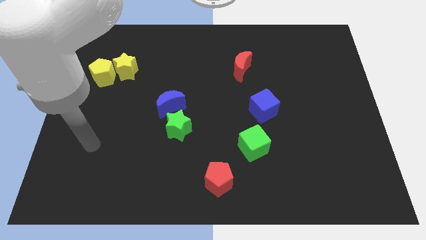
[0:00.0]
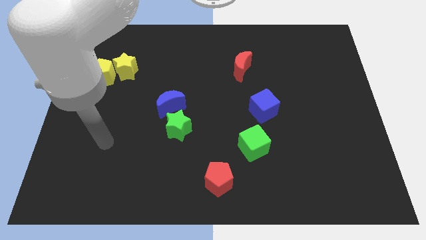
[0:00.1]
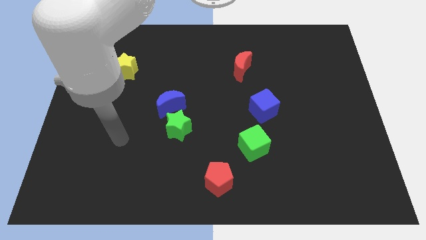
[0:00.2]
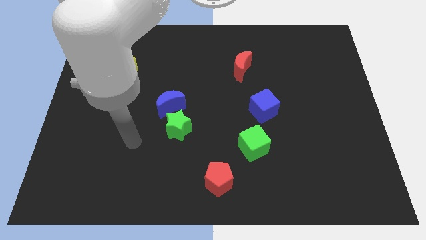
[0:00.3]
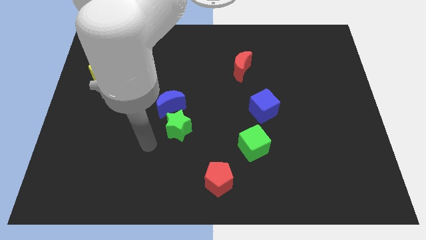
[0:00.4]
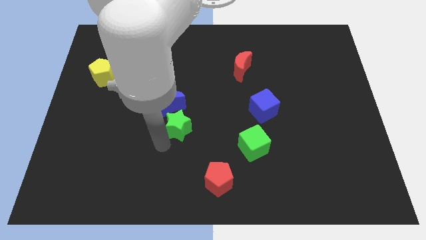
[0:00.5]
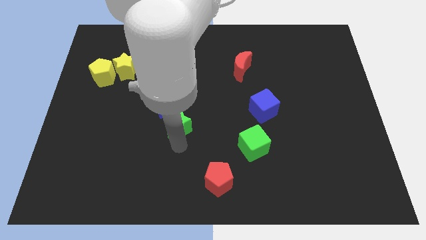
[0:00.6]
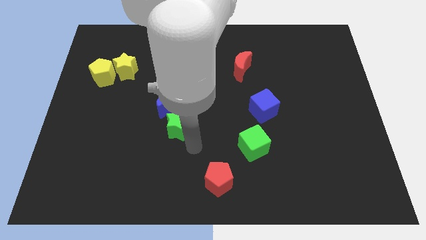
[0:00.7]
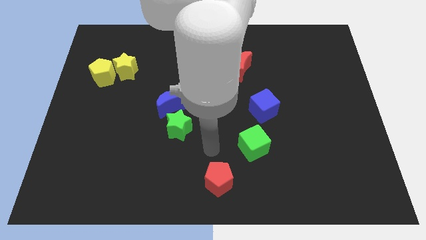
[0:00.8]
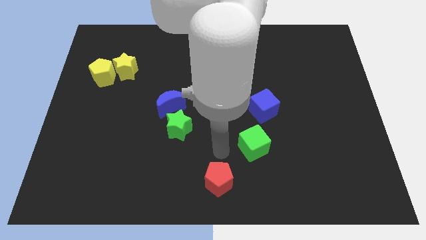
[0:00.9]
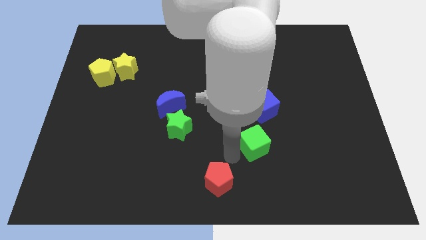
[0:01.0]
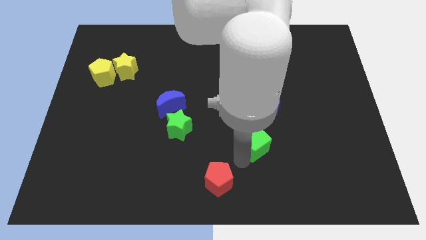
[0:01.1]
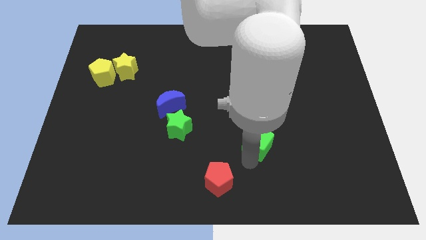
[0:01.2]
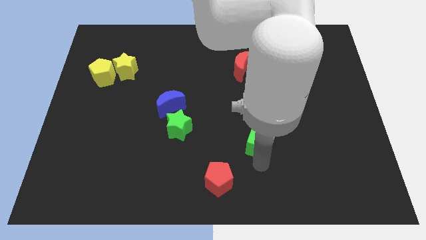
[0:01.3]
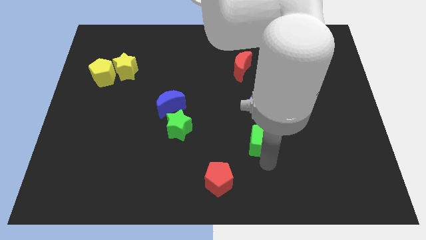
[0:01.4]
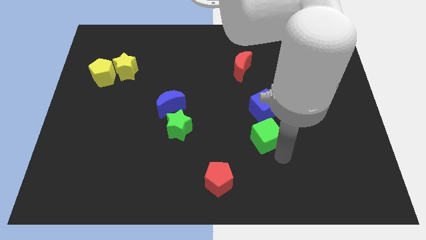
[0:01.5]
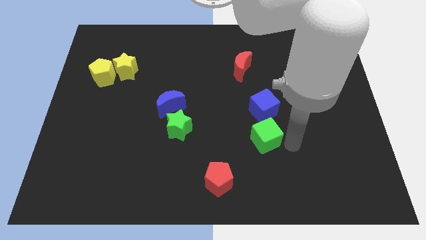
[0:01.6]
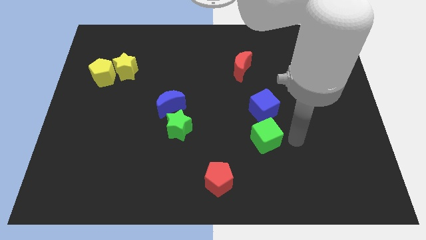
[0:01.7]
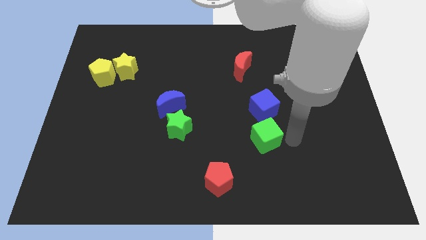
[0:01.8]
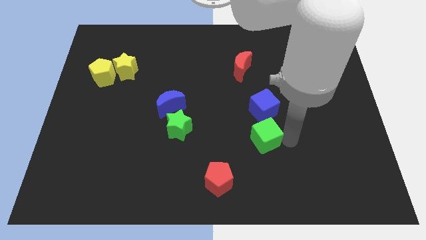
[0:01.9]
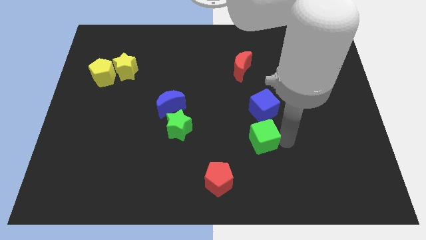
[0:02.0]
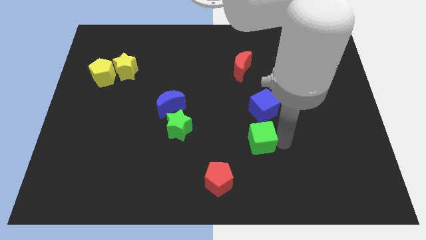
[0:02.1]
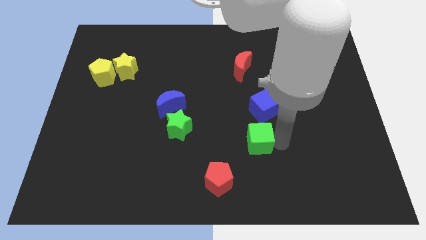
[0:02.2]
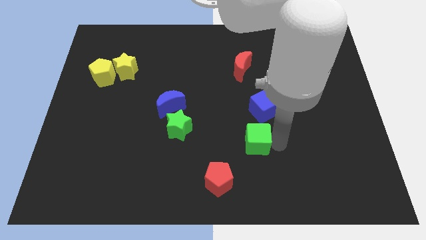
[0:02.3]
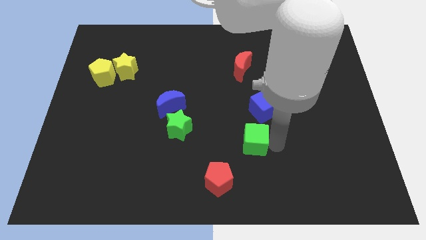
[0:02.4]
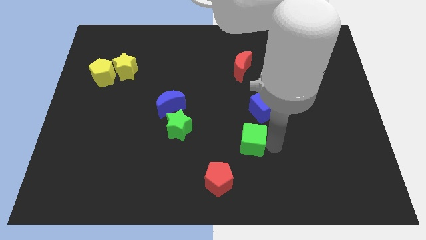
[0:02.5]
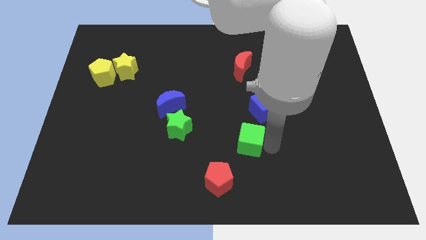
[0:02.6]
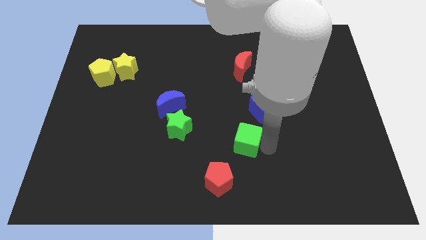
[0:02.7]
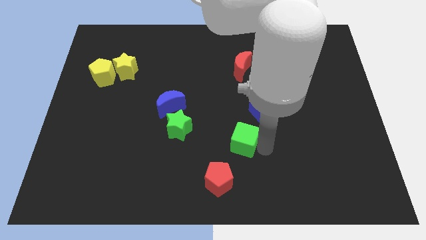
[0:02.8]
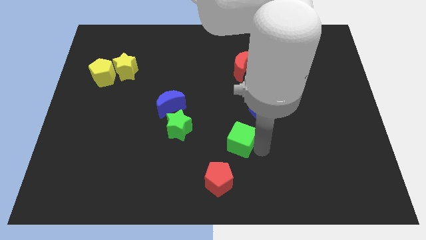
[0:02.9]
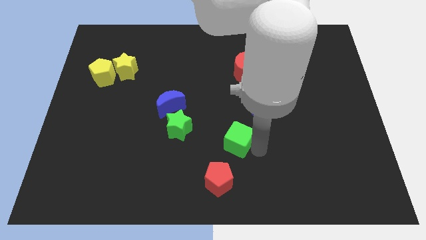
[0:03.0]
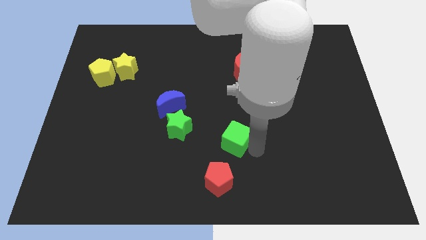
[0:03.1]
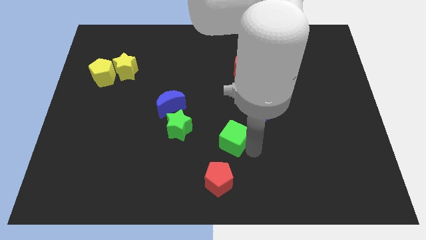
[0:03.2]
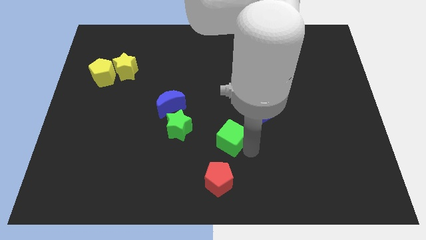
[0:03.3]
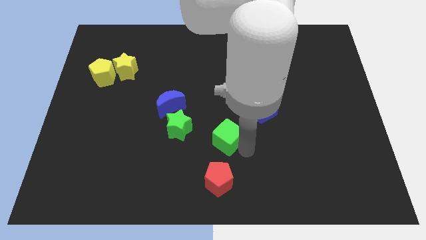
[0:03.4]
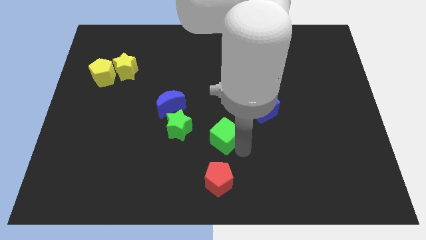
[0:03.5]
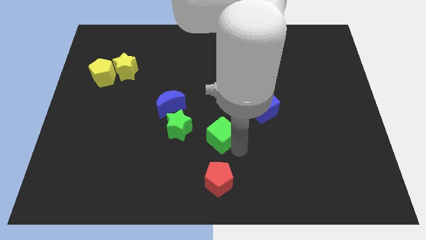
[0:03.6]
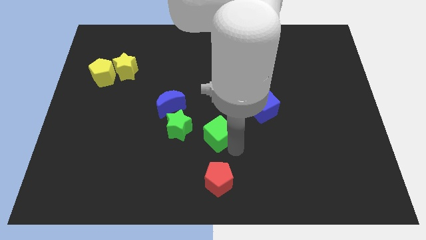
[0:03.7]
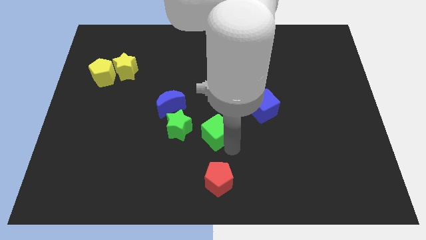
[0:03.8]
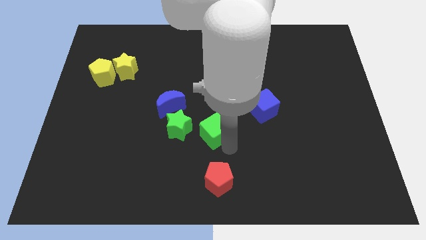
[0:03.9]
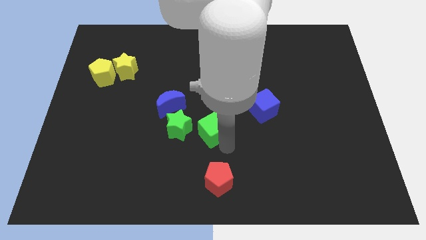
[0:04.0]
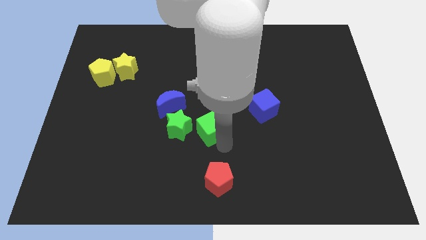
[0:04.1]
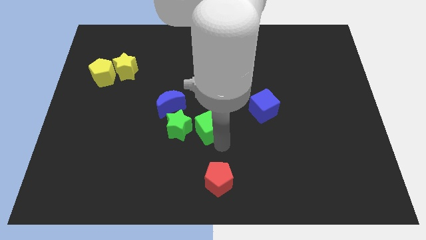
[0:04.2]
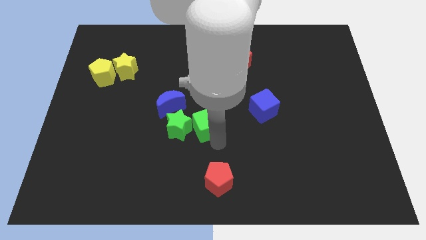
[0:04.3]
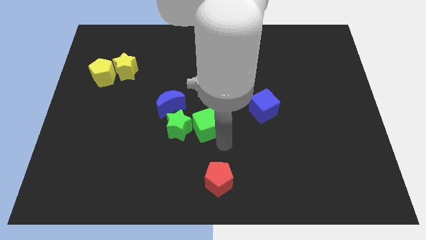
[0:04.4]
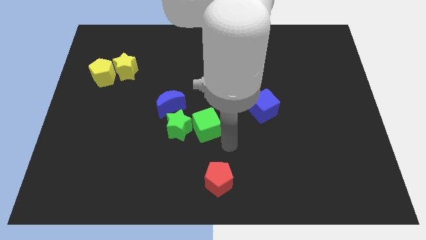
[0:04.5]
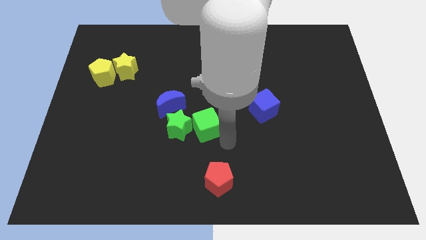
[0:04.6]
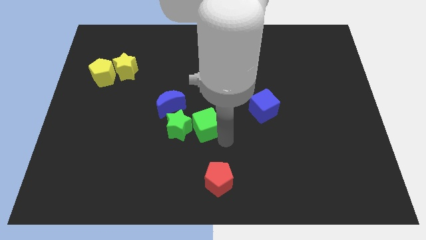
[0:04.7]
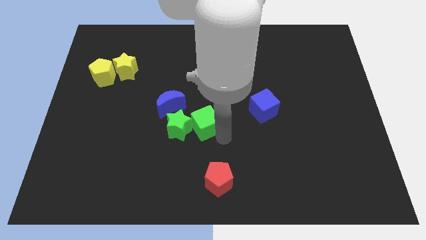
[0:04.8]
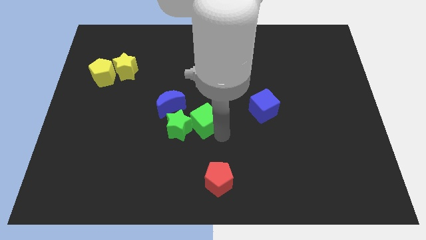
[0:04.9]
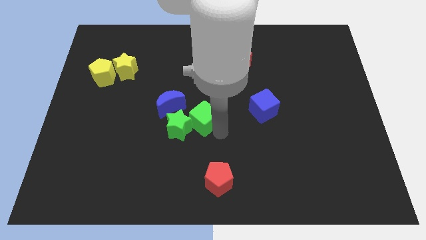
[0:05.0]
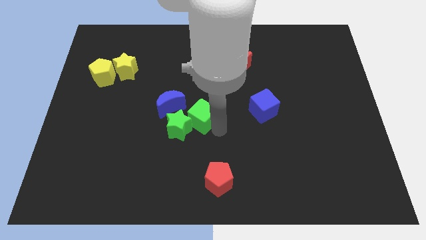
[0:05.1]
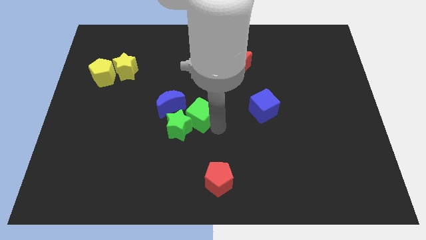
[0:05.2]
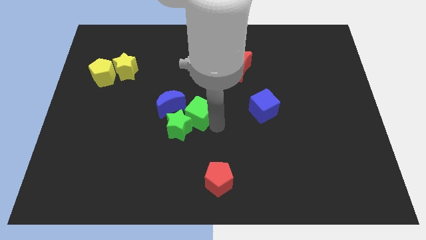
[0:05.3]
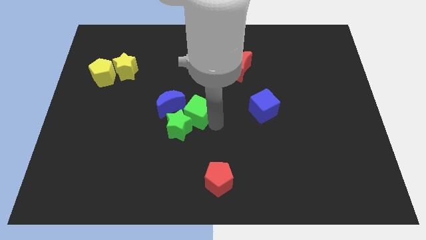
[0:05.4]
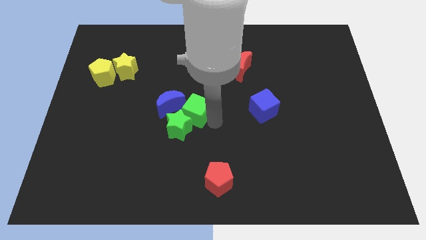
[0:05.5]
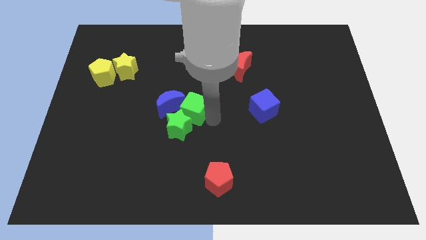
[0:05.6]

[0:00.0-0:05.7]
slide the green cube to the blue moon

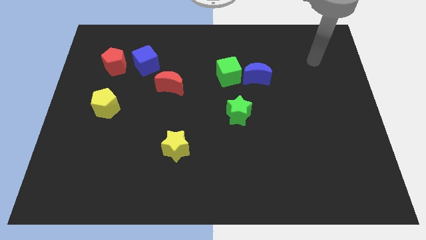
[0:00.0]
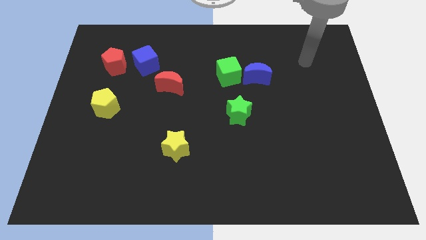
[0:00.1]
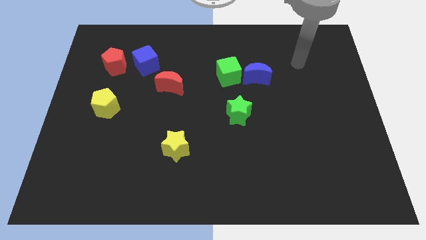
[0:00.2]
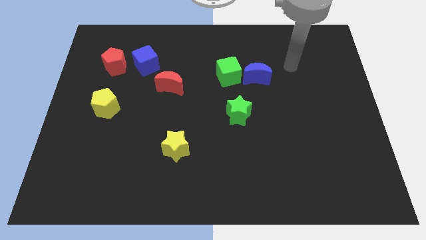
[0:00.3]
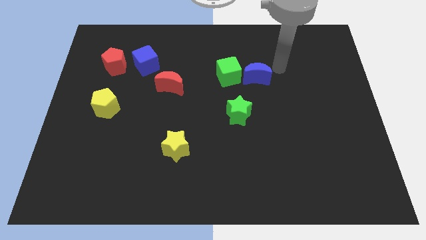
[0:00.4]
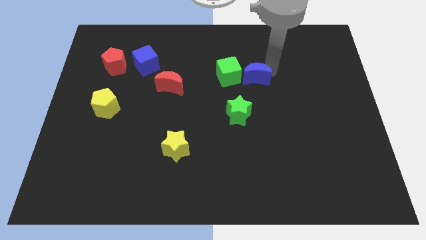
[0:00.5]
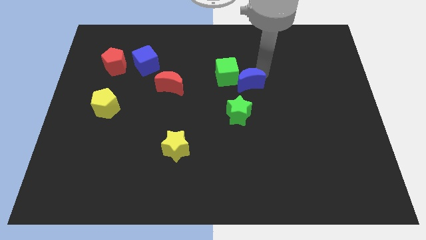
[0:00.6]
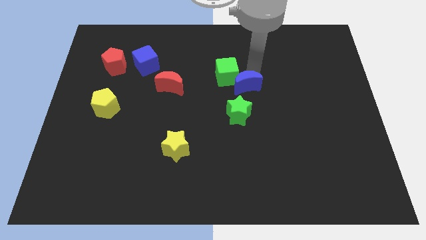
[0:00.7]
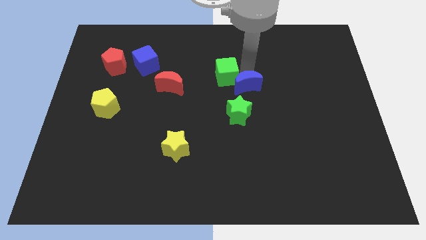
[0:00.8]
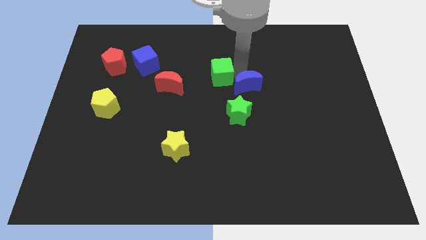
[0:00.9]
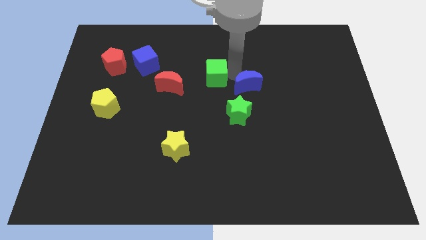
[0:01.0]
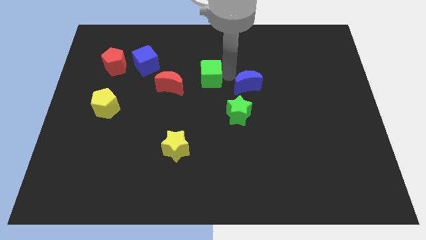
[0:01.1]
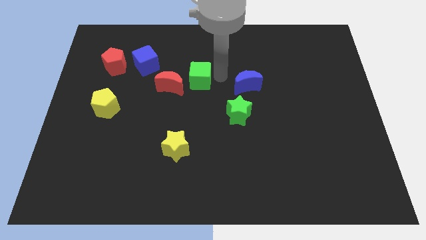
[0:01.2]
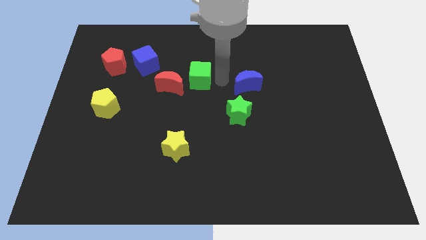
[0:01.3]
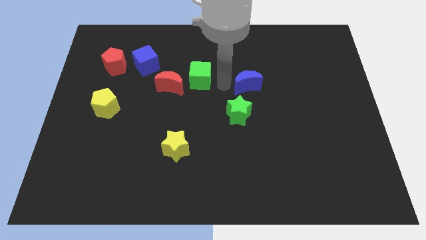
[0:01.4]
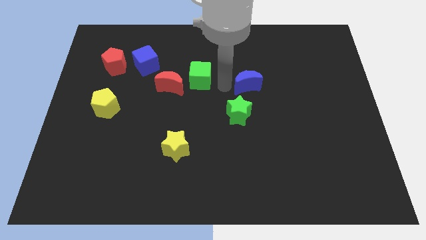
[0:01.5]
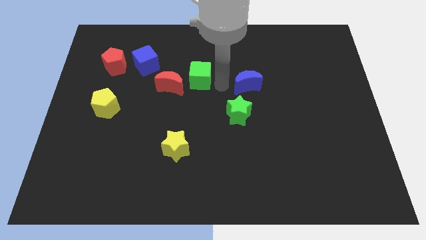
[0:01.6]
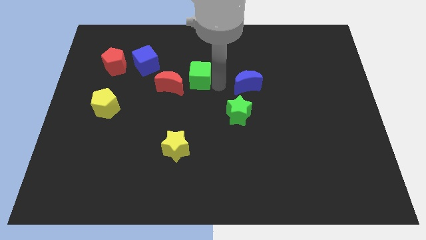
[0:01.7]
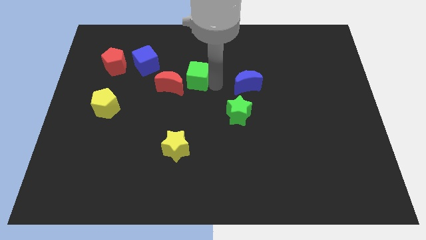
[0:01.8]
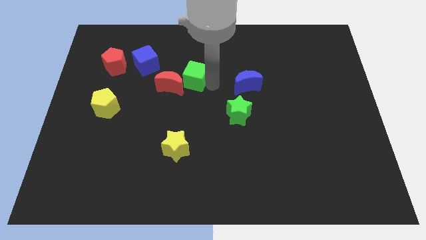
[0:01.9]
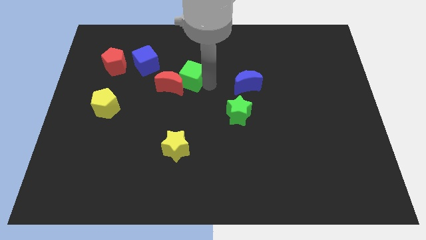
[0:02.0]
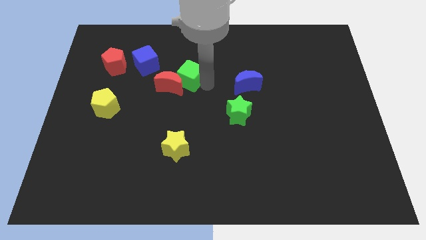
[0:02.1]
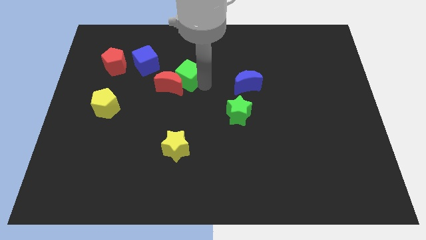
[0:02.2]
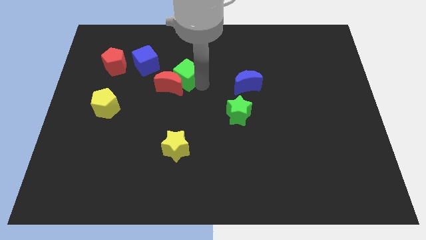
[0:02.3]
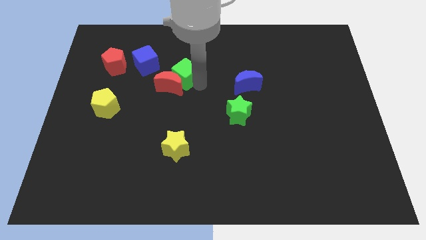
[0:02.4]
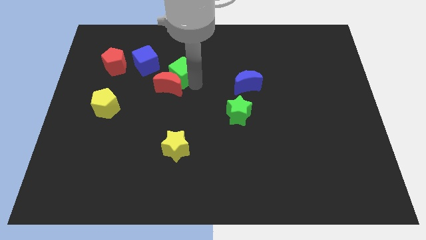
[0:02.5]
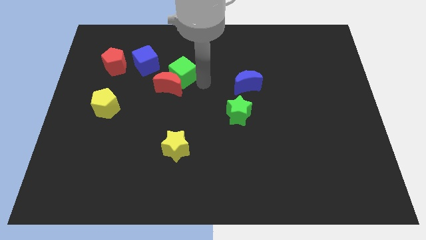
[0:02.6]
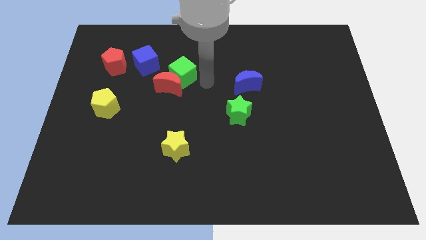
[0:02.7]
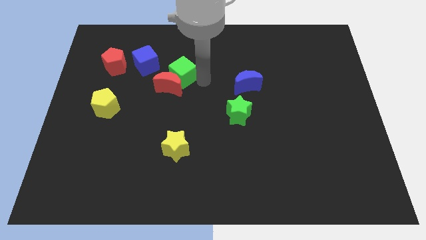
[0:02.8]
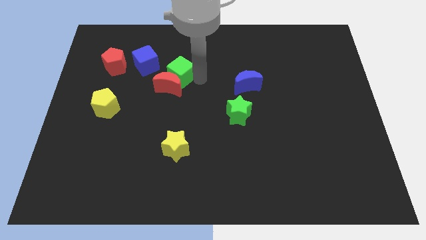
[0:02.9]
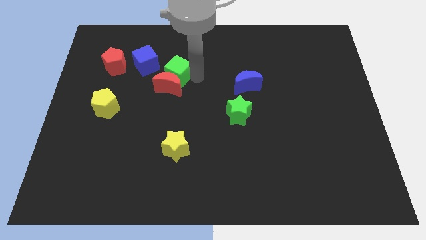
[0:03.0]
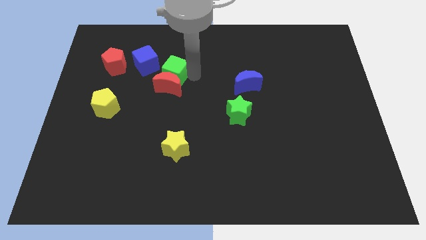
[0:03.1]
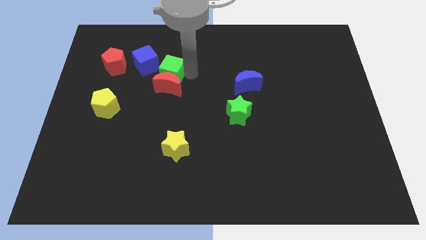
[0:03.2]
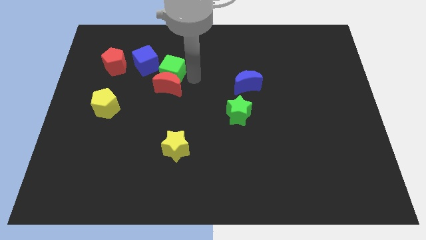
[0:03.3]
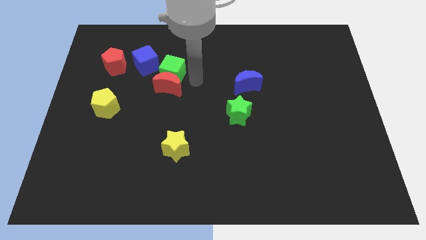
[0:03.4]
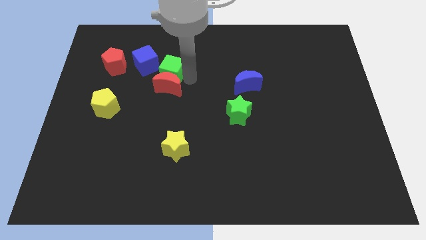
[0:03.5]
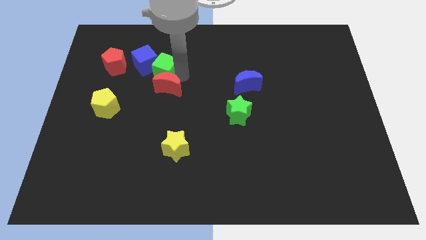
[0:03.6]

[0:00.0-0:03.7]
push the green cube close to the blue cube
